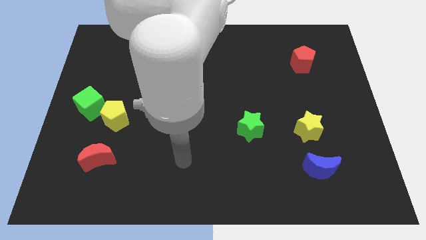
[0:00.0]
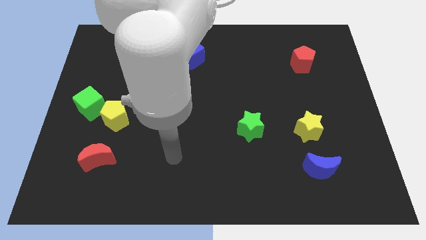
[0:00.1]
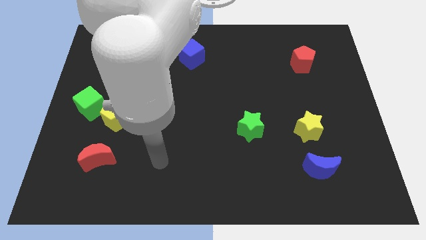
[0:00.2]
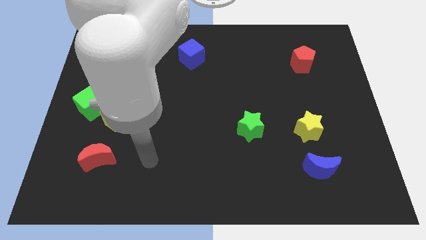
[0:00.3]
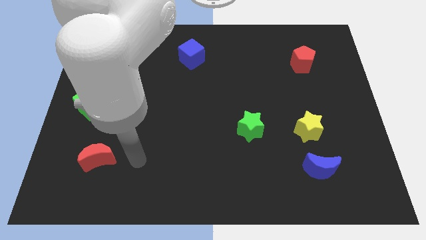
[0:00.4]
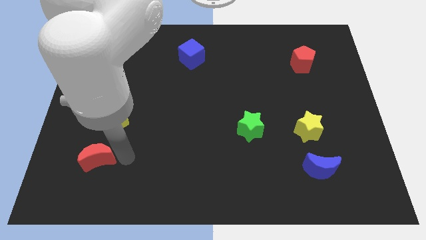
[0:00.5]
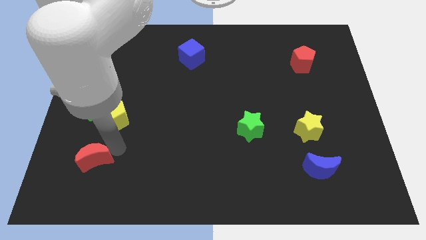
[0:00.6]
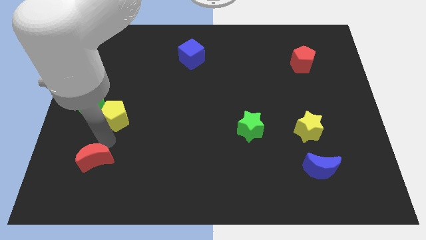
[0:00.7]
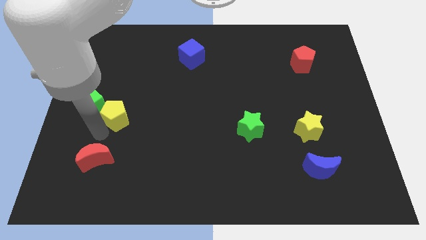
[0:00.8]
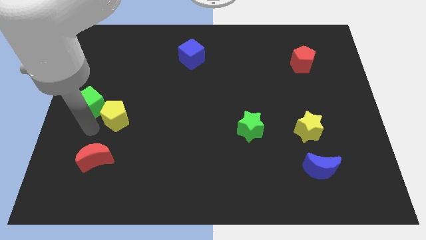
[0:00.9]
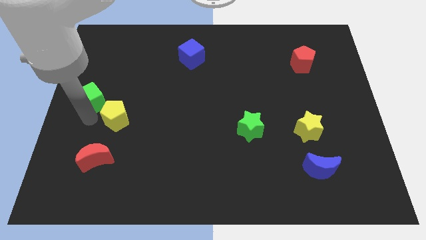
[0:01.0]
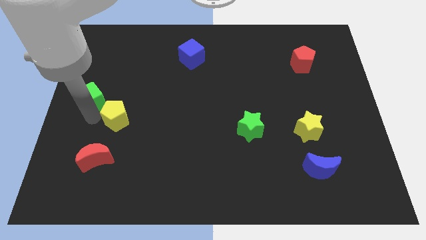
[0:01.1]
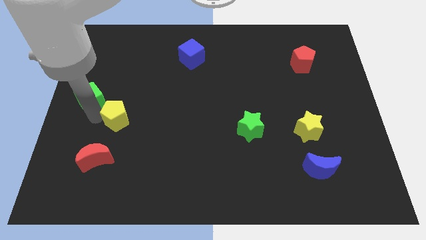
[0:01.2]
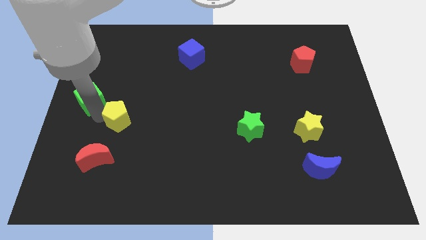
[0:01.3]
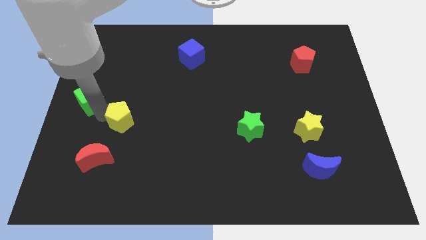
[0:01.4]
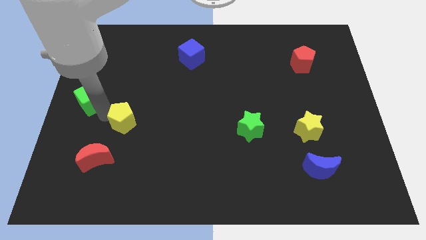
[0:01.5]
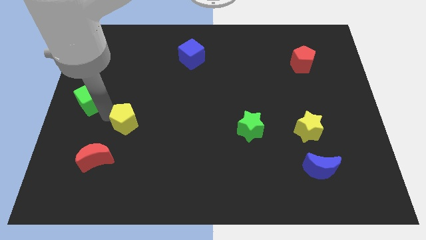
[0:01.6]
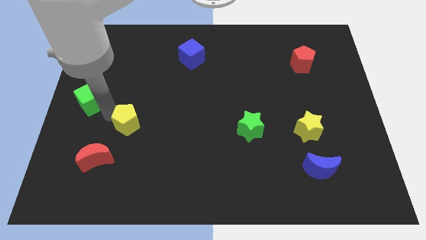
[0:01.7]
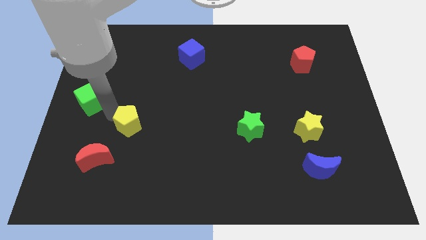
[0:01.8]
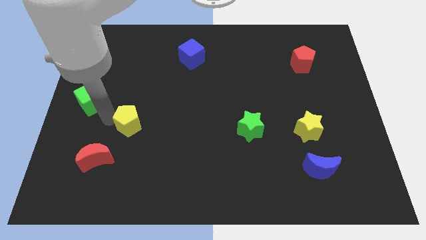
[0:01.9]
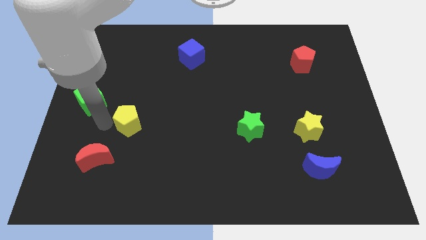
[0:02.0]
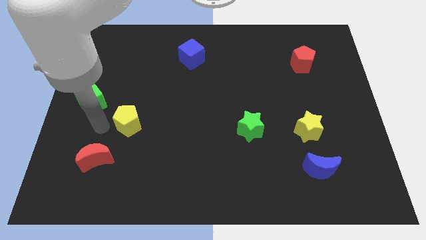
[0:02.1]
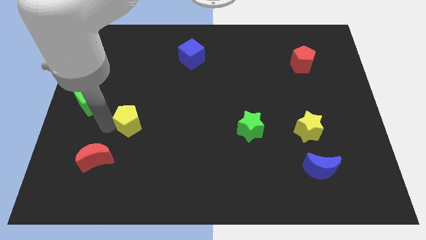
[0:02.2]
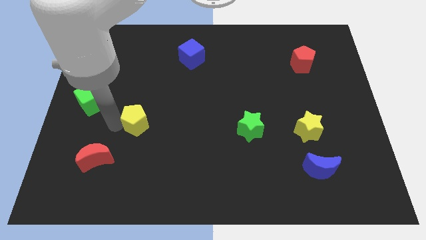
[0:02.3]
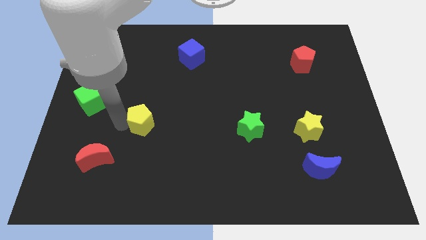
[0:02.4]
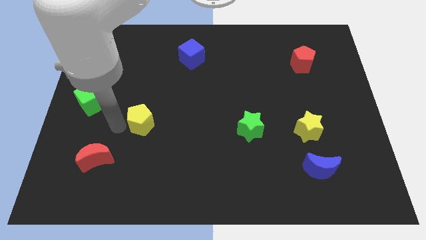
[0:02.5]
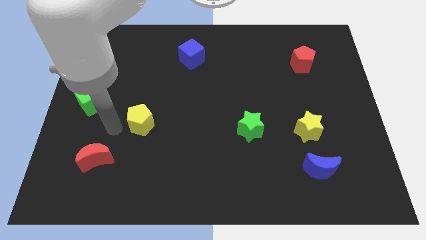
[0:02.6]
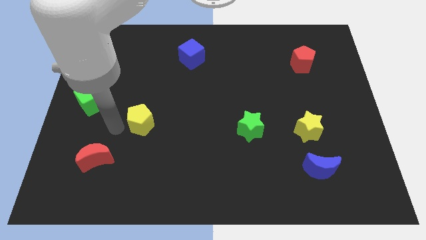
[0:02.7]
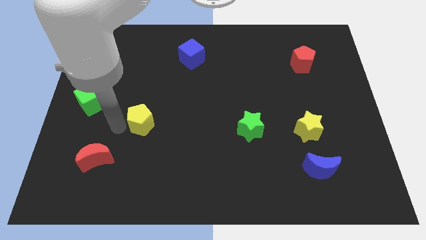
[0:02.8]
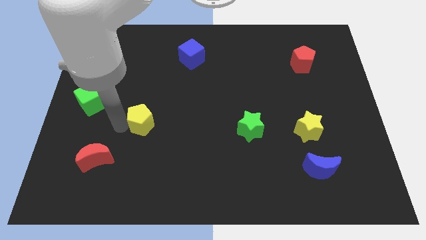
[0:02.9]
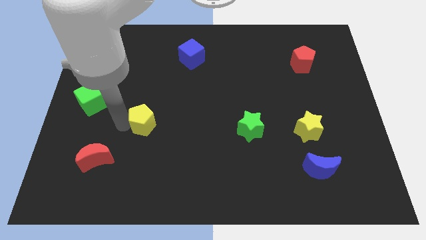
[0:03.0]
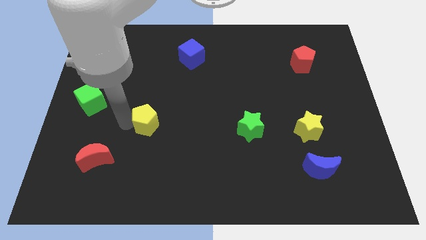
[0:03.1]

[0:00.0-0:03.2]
move the yellow pentagon slightly right

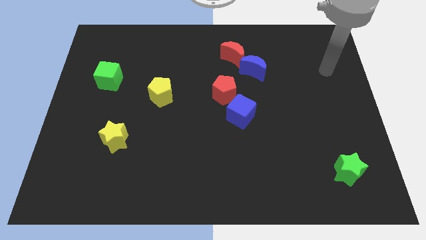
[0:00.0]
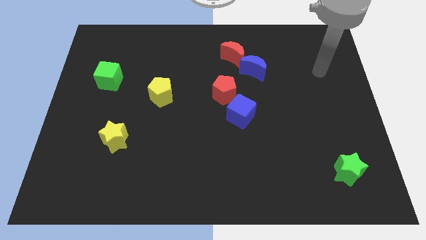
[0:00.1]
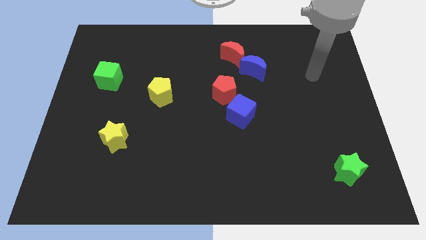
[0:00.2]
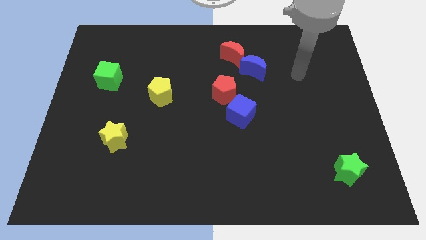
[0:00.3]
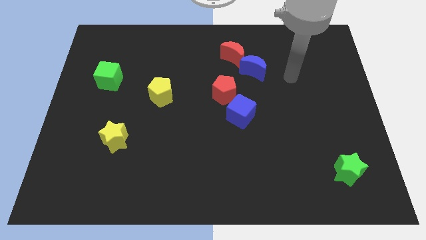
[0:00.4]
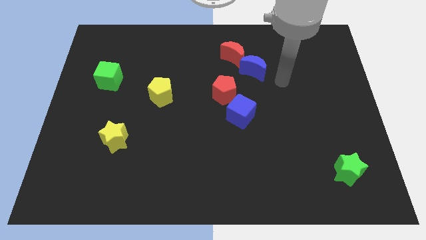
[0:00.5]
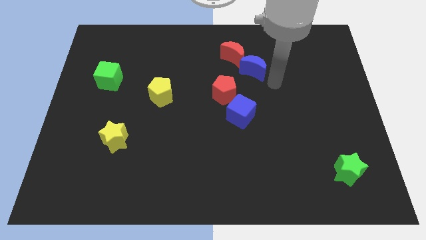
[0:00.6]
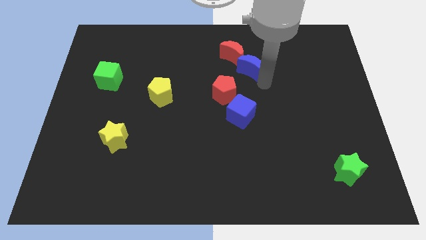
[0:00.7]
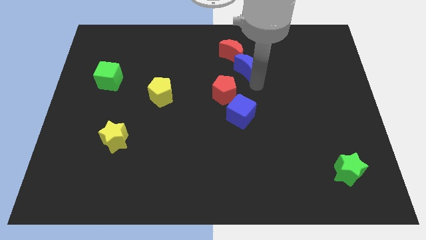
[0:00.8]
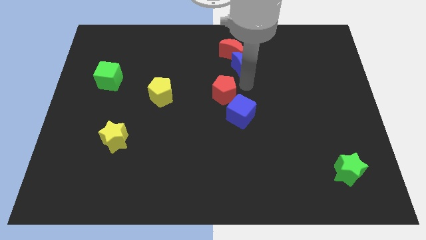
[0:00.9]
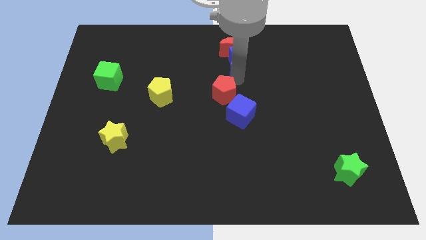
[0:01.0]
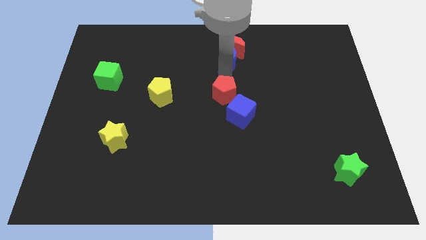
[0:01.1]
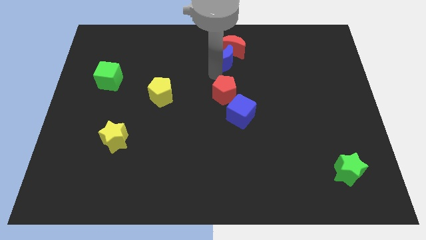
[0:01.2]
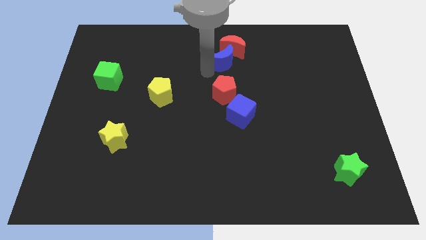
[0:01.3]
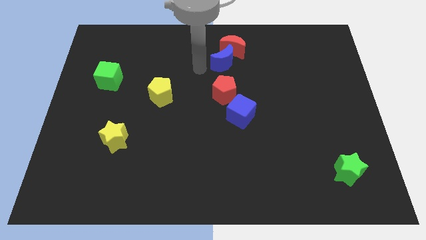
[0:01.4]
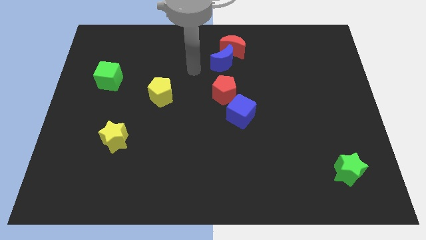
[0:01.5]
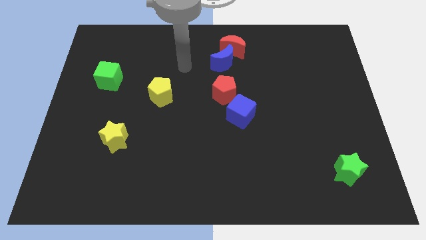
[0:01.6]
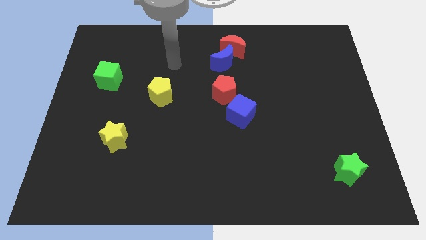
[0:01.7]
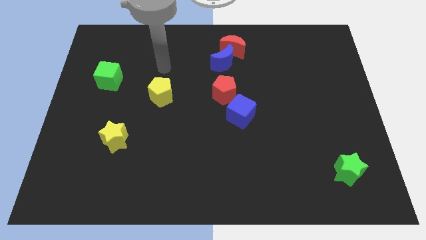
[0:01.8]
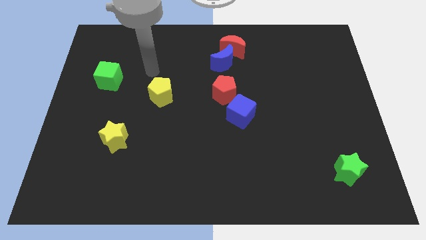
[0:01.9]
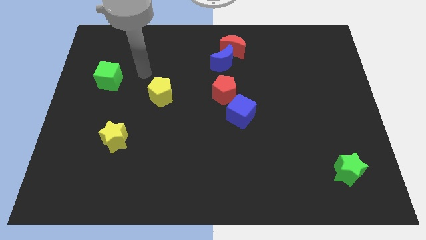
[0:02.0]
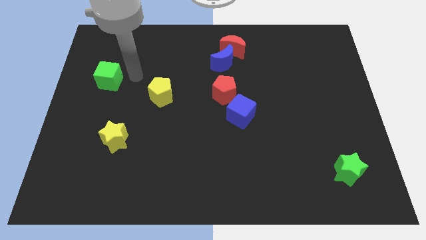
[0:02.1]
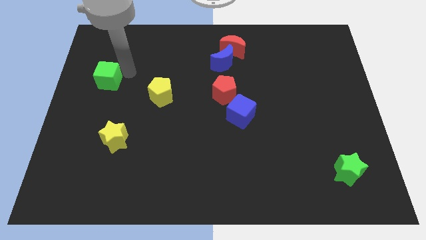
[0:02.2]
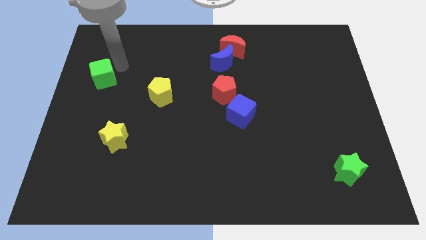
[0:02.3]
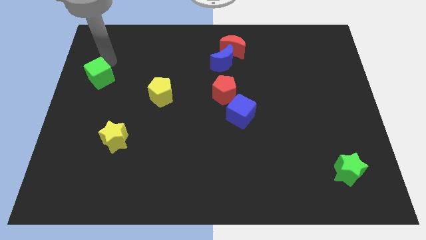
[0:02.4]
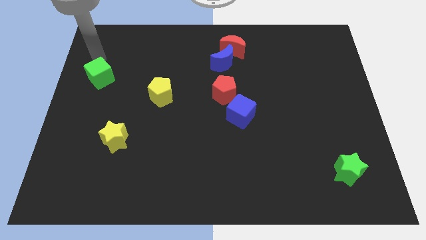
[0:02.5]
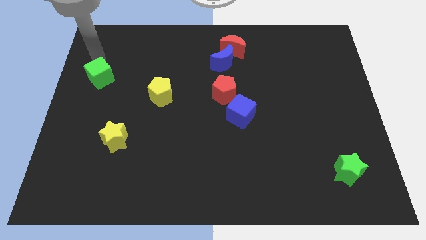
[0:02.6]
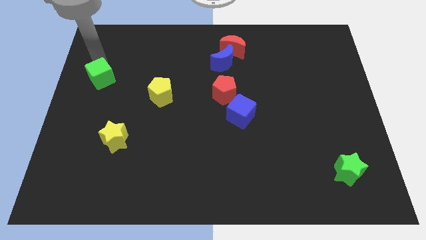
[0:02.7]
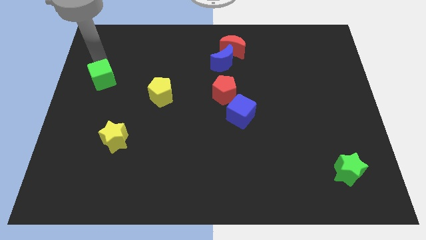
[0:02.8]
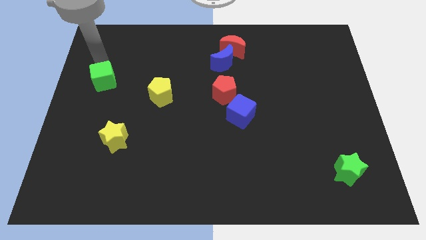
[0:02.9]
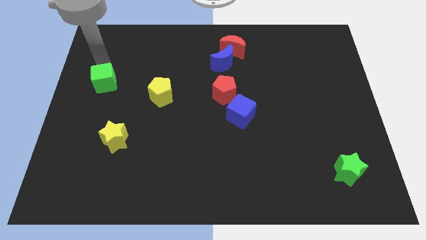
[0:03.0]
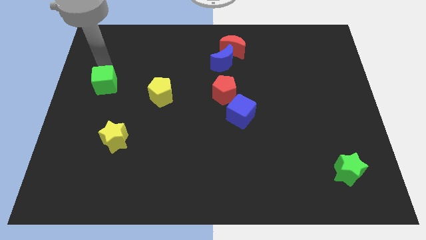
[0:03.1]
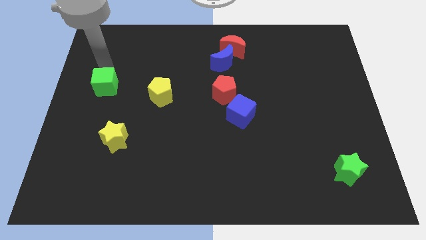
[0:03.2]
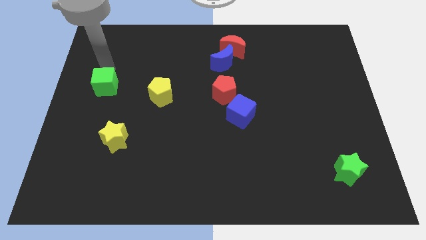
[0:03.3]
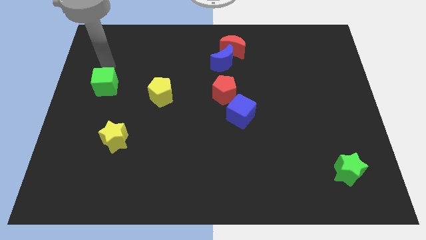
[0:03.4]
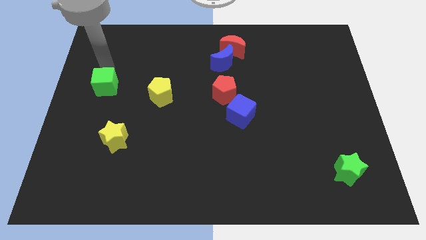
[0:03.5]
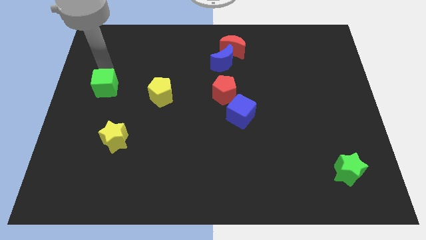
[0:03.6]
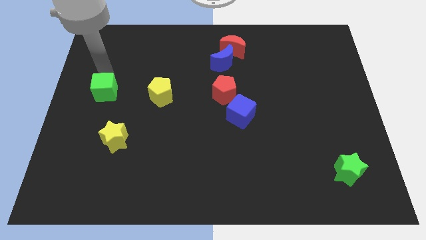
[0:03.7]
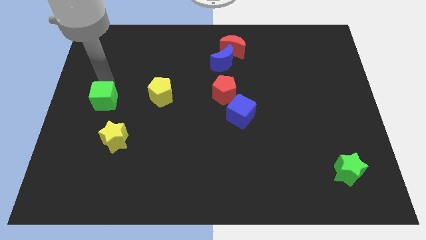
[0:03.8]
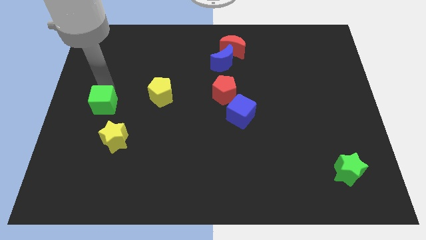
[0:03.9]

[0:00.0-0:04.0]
slide the green cube a bit down

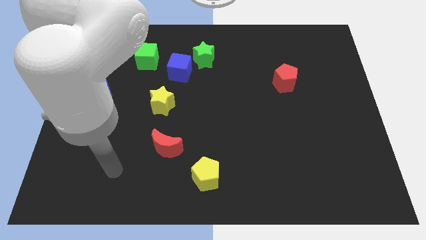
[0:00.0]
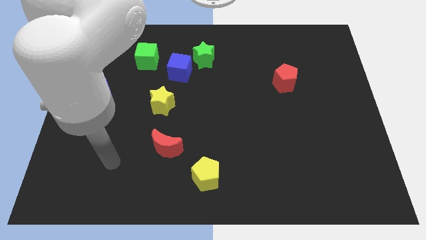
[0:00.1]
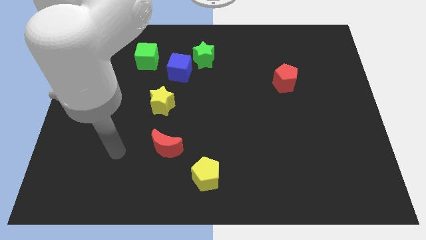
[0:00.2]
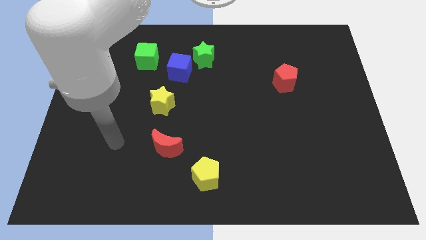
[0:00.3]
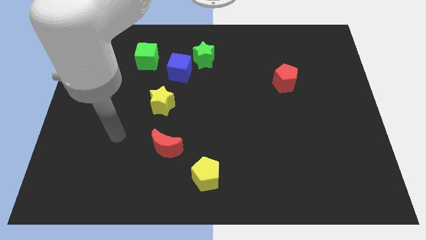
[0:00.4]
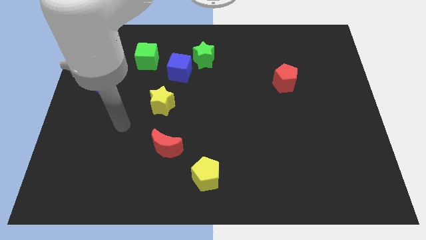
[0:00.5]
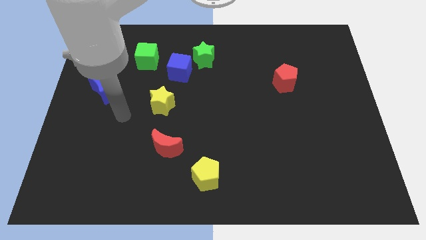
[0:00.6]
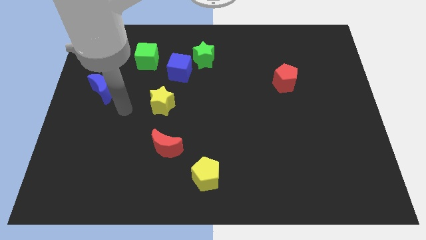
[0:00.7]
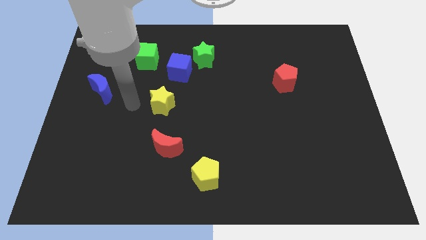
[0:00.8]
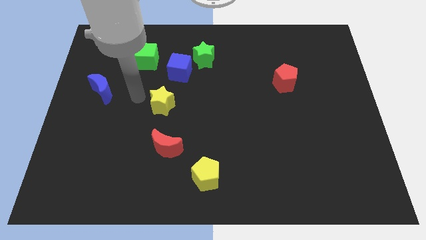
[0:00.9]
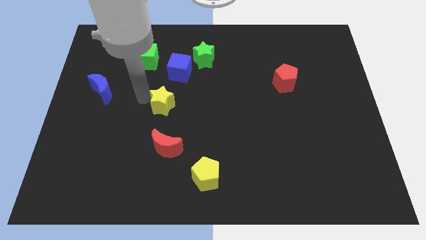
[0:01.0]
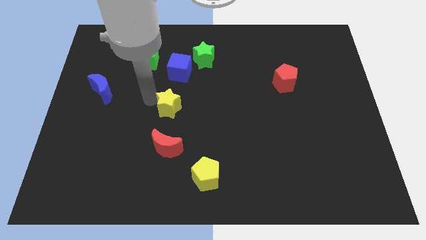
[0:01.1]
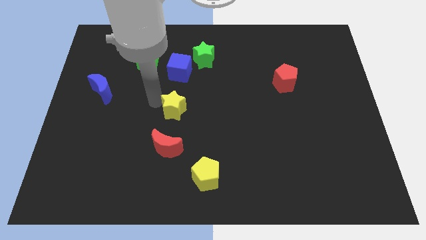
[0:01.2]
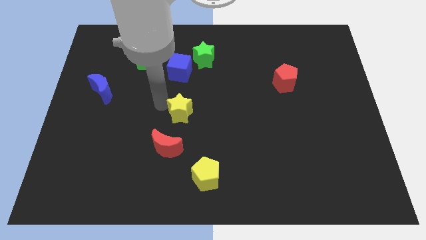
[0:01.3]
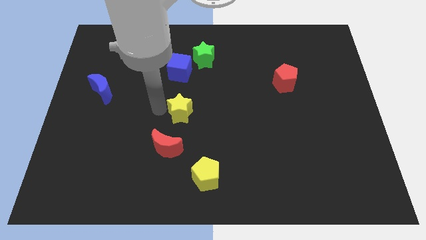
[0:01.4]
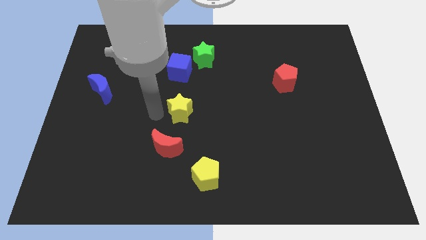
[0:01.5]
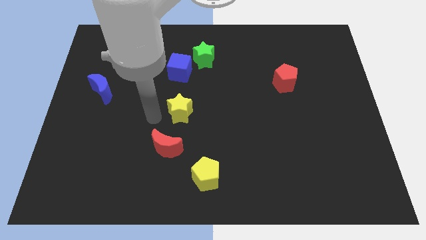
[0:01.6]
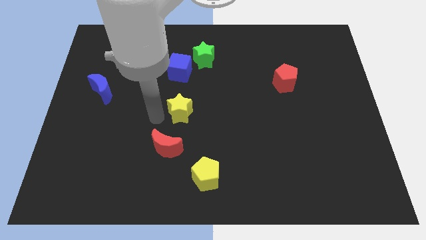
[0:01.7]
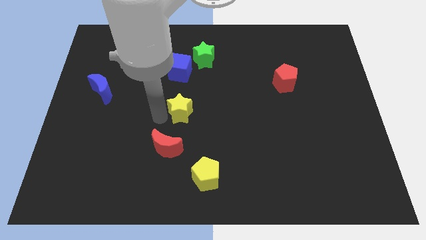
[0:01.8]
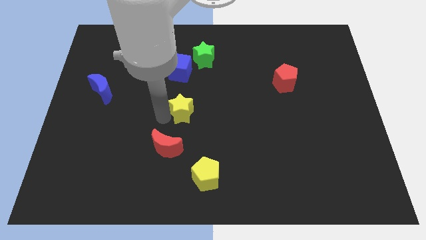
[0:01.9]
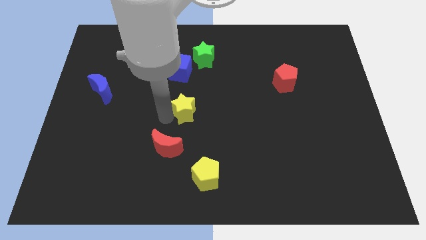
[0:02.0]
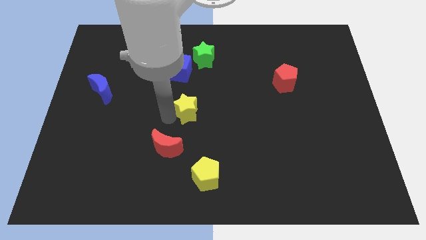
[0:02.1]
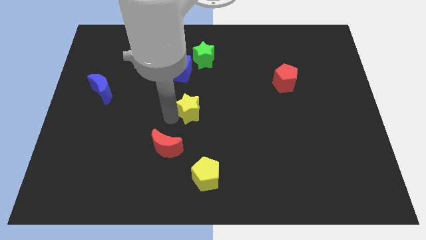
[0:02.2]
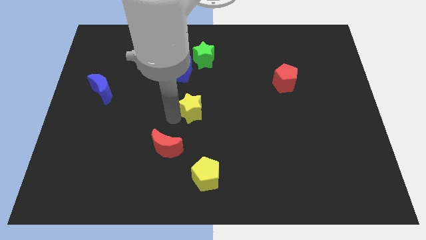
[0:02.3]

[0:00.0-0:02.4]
move the yellow star slightly right
